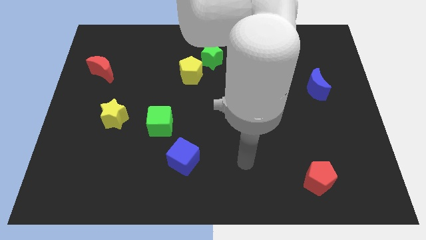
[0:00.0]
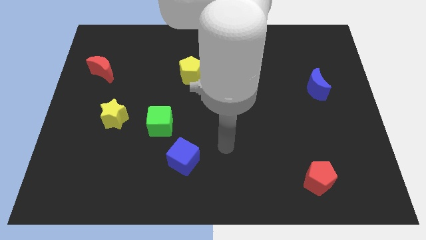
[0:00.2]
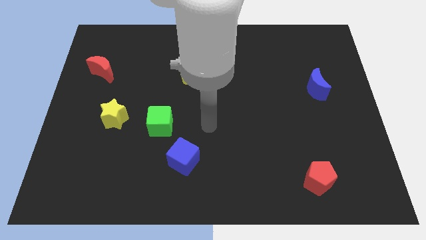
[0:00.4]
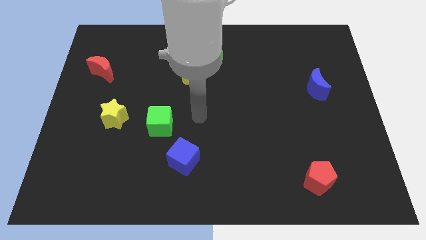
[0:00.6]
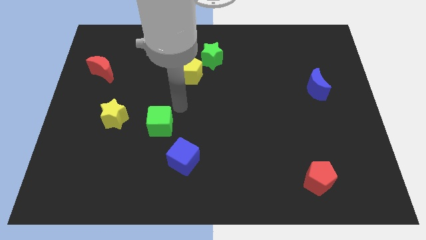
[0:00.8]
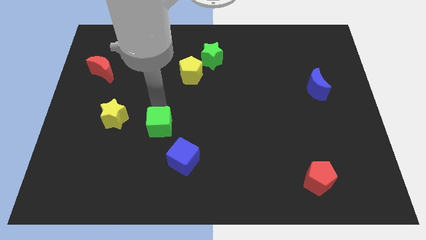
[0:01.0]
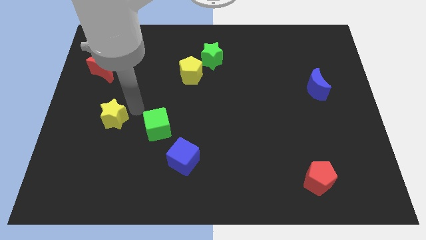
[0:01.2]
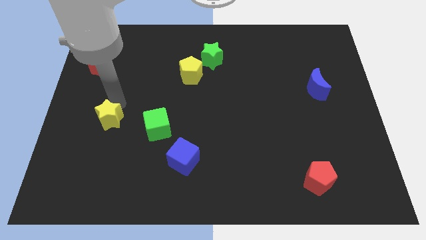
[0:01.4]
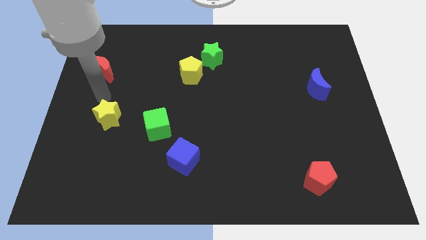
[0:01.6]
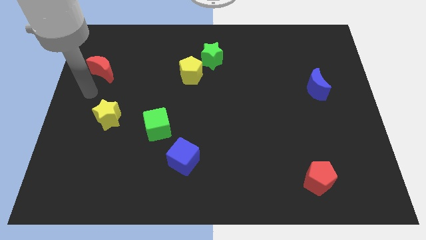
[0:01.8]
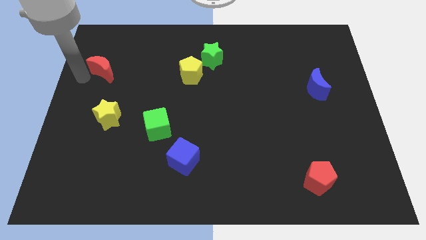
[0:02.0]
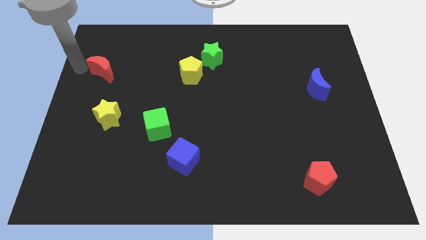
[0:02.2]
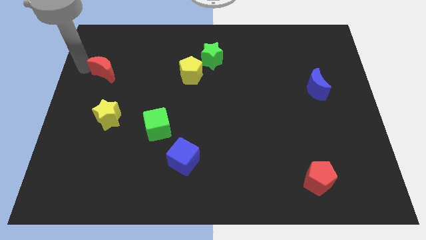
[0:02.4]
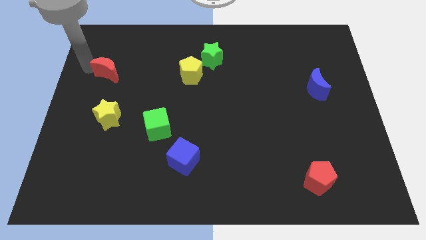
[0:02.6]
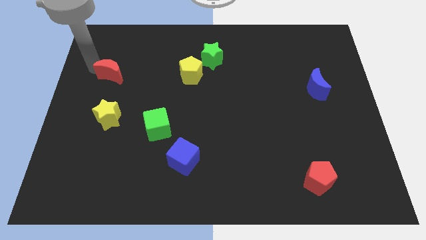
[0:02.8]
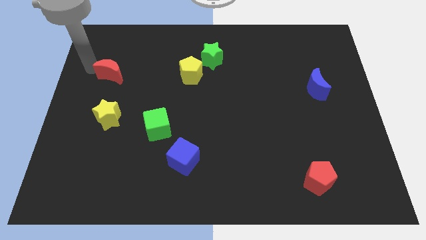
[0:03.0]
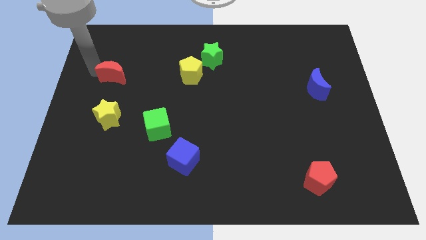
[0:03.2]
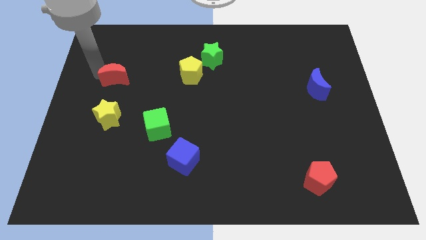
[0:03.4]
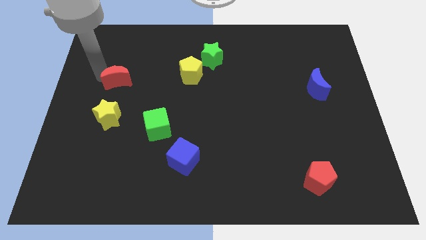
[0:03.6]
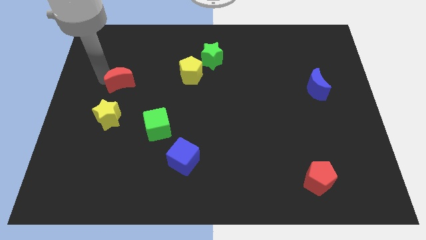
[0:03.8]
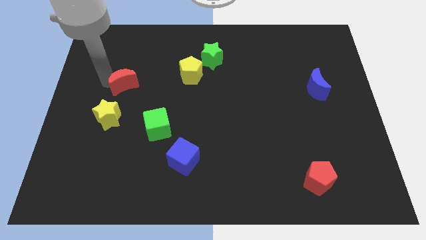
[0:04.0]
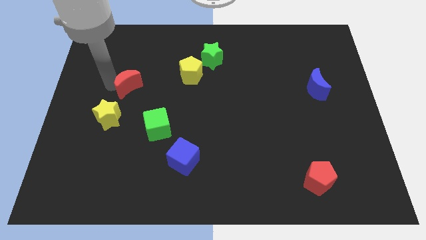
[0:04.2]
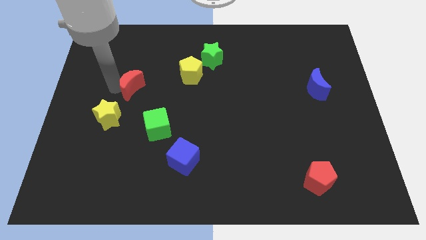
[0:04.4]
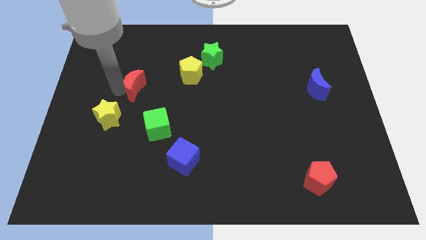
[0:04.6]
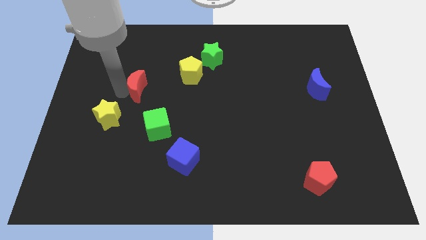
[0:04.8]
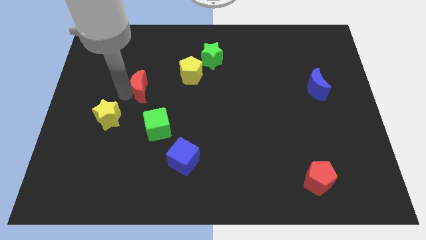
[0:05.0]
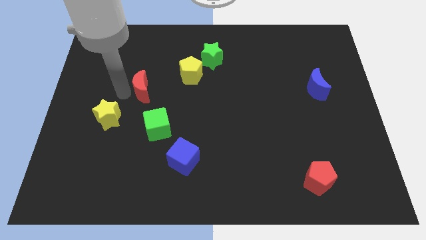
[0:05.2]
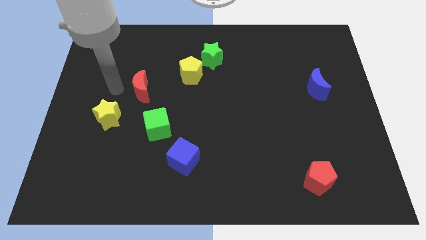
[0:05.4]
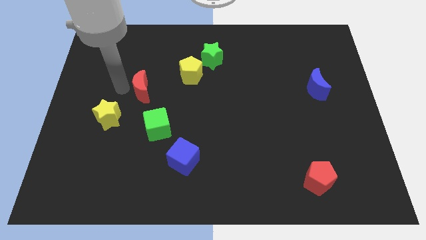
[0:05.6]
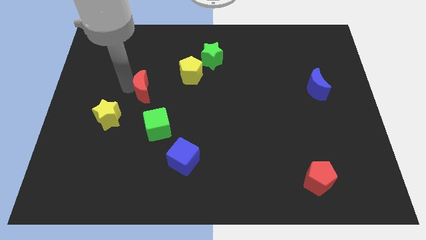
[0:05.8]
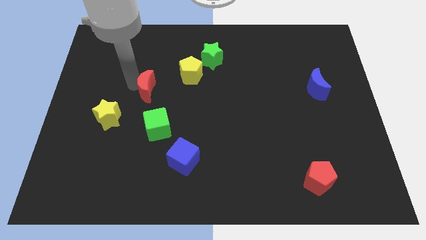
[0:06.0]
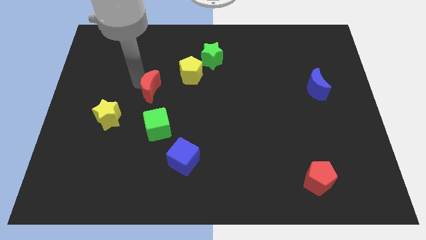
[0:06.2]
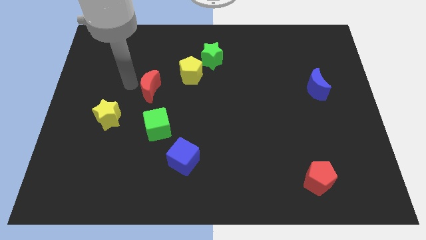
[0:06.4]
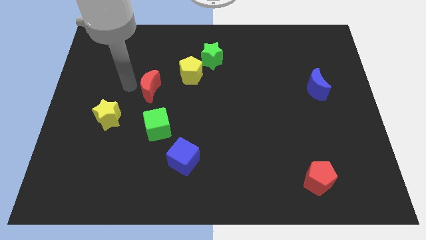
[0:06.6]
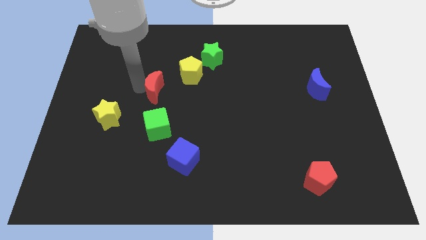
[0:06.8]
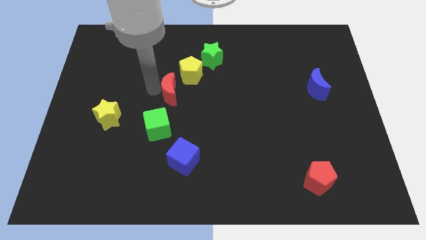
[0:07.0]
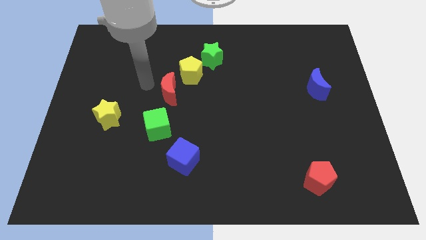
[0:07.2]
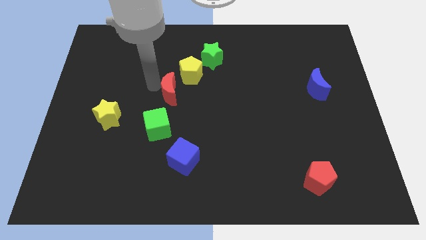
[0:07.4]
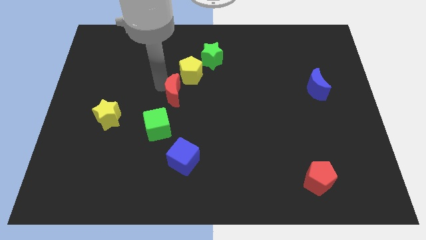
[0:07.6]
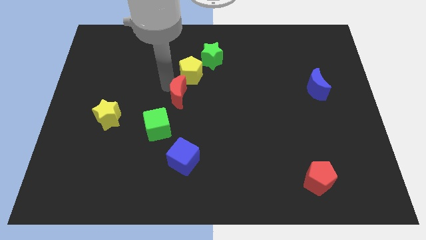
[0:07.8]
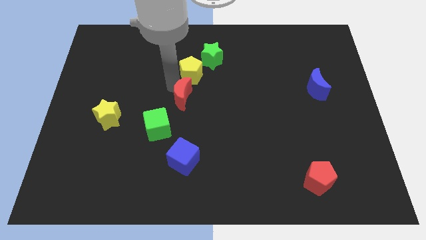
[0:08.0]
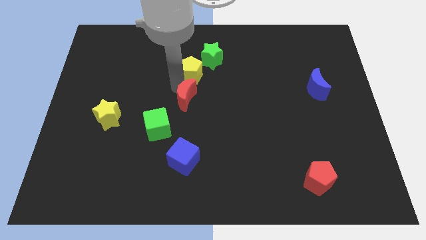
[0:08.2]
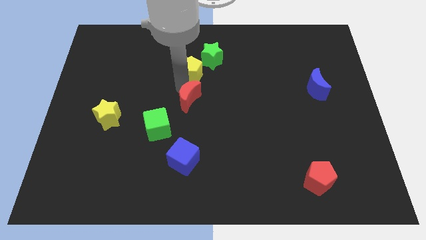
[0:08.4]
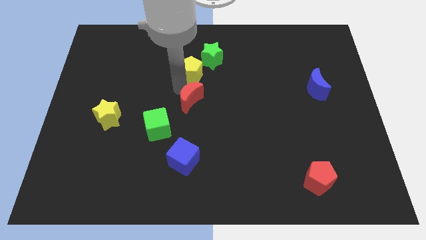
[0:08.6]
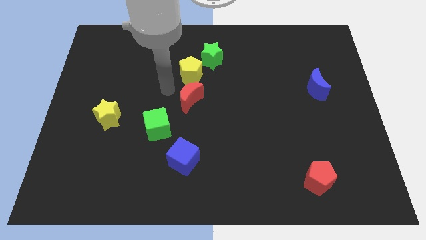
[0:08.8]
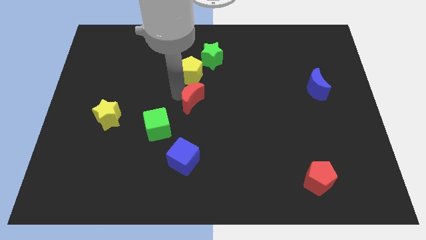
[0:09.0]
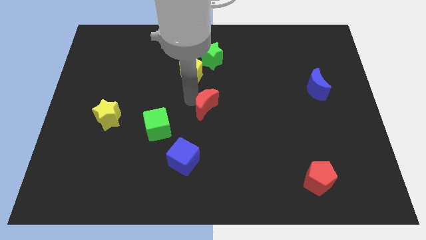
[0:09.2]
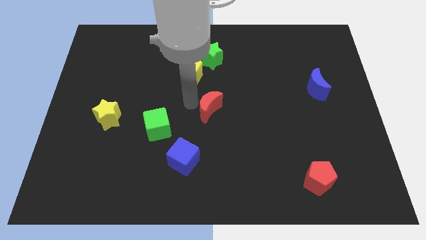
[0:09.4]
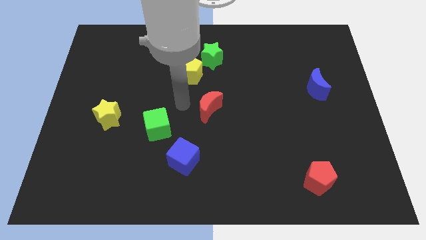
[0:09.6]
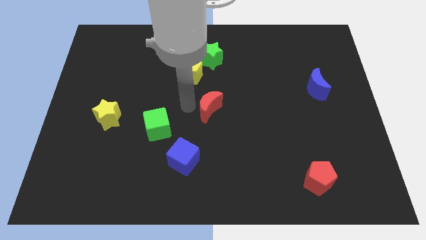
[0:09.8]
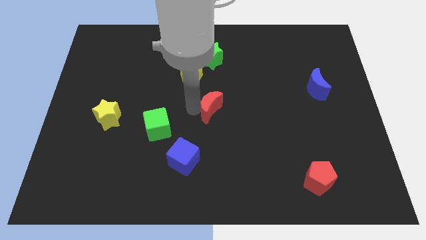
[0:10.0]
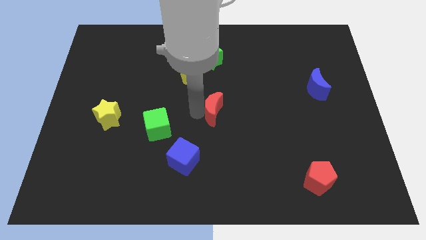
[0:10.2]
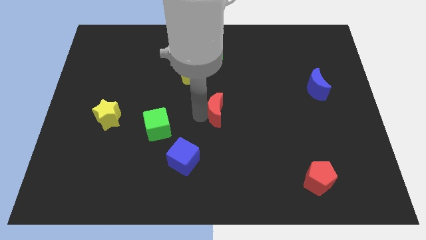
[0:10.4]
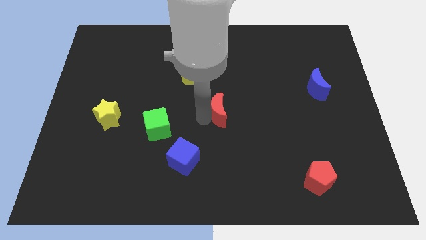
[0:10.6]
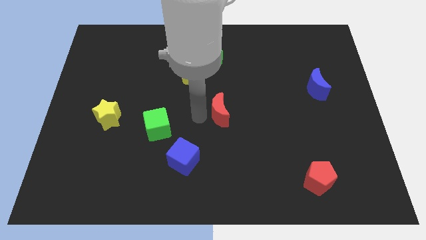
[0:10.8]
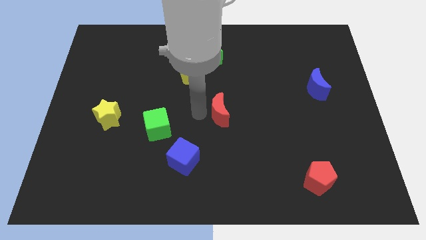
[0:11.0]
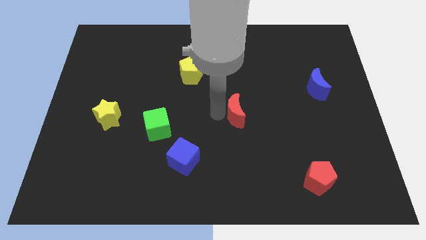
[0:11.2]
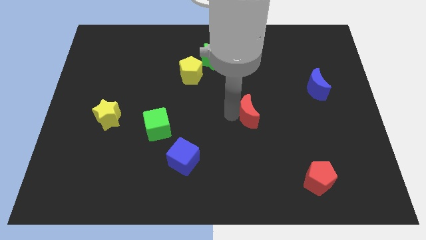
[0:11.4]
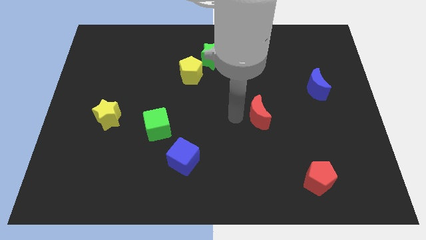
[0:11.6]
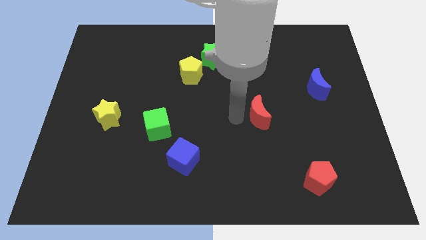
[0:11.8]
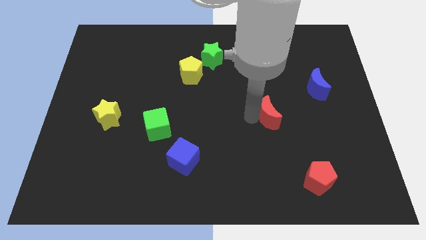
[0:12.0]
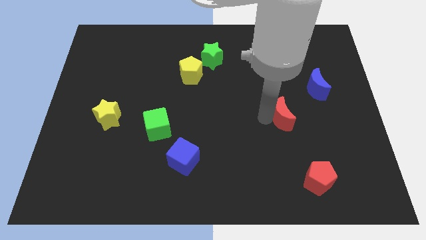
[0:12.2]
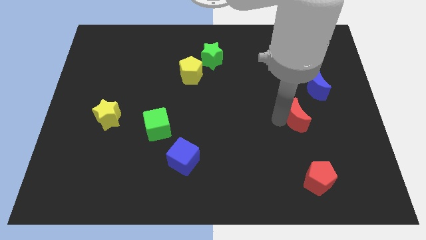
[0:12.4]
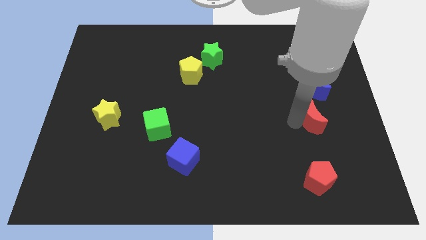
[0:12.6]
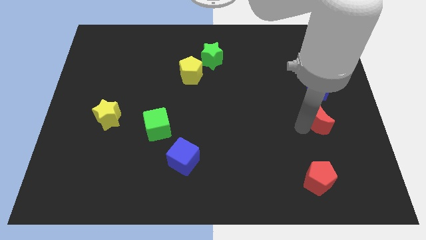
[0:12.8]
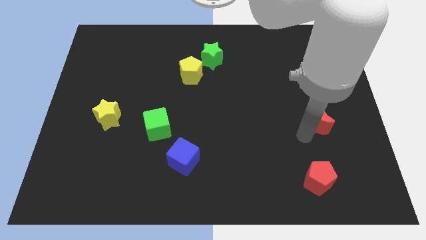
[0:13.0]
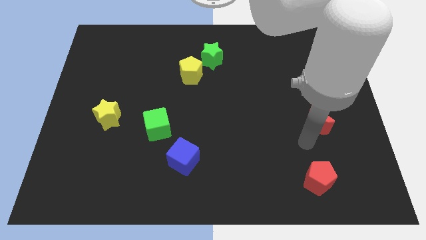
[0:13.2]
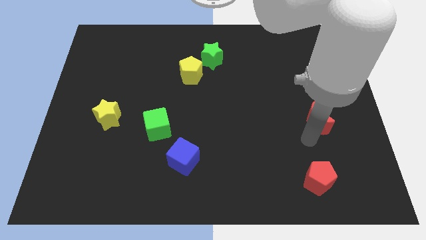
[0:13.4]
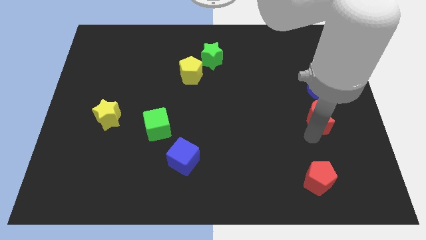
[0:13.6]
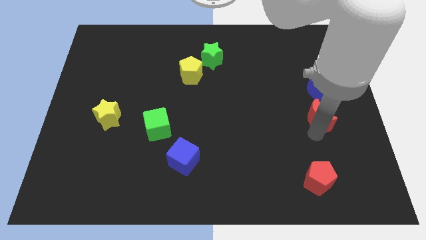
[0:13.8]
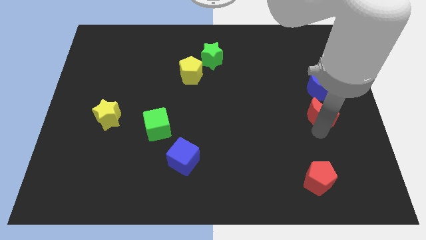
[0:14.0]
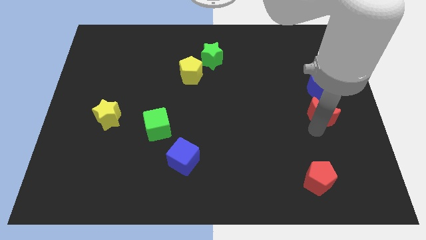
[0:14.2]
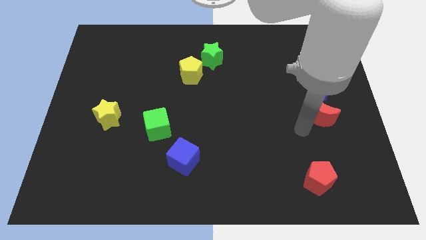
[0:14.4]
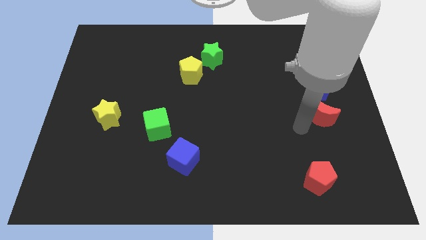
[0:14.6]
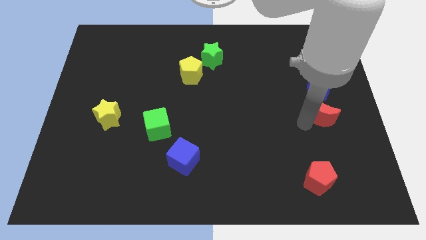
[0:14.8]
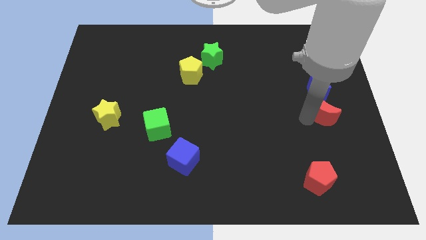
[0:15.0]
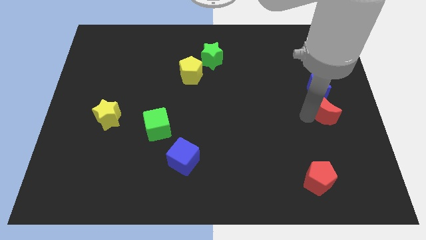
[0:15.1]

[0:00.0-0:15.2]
push the red moon to the right side of the board
